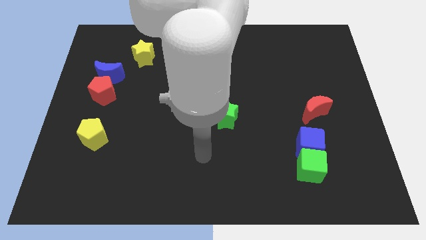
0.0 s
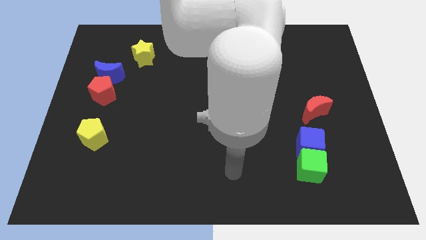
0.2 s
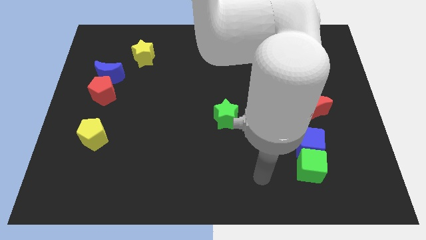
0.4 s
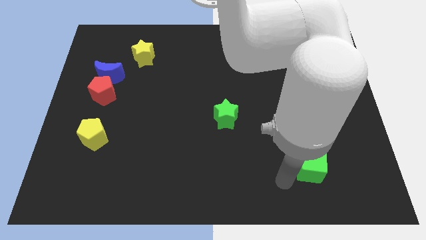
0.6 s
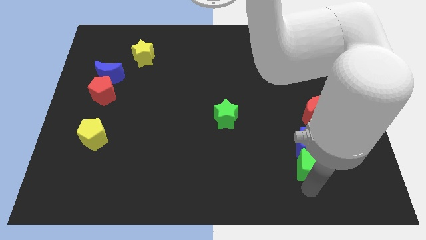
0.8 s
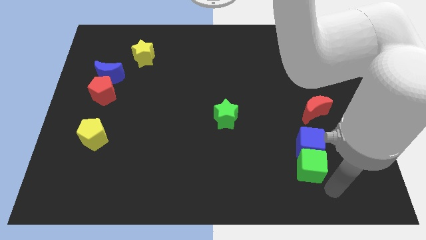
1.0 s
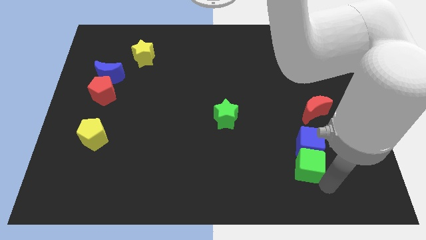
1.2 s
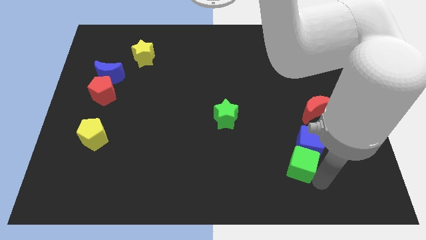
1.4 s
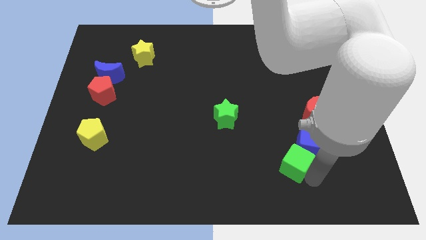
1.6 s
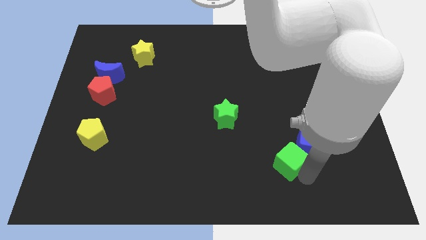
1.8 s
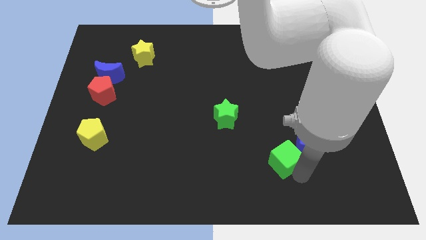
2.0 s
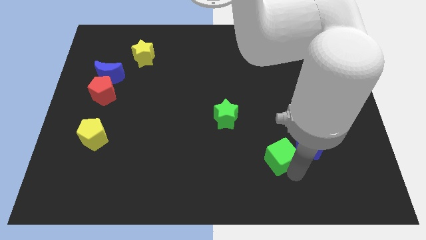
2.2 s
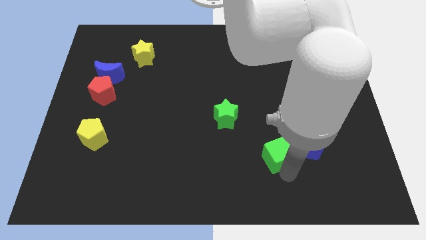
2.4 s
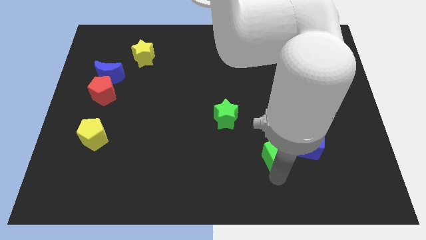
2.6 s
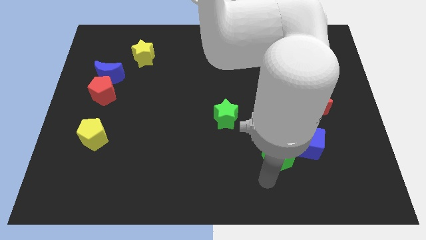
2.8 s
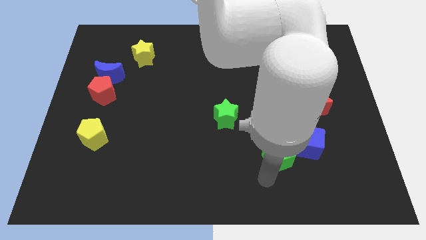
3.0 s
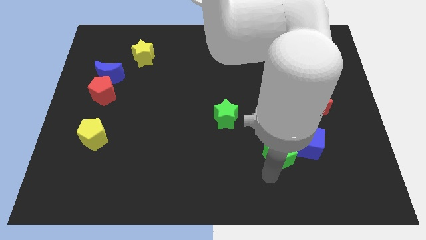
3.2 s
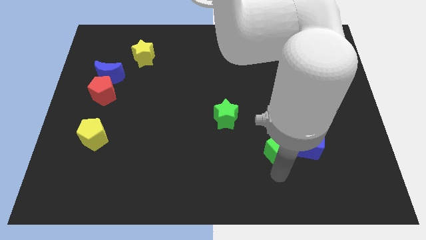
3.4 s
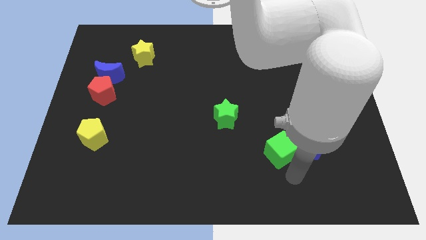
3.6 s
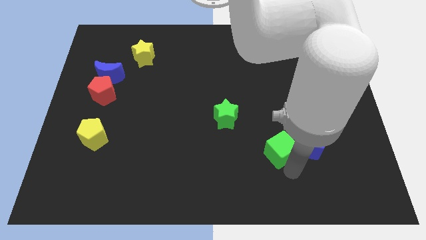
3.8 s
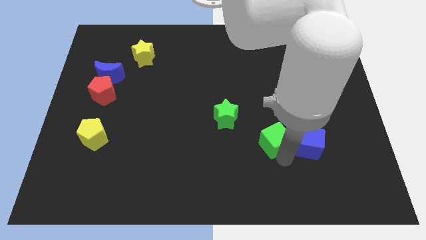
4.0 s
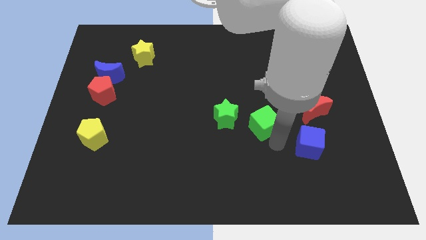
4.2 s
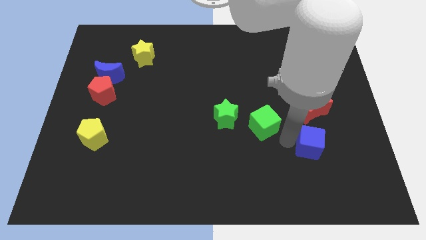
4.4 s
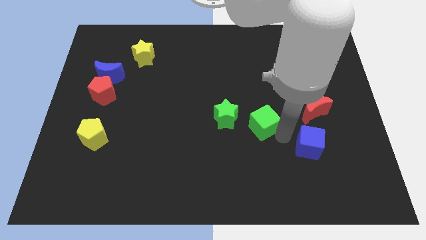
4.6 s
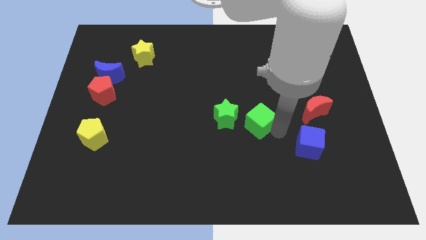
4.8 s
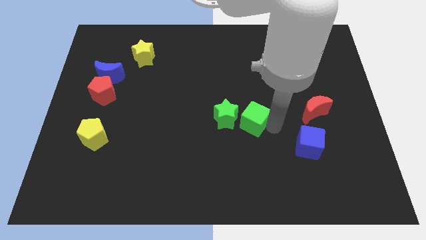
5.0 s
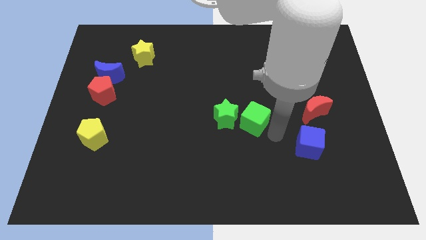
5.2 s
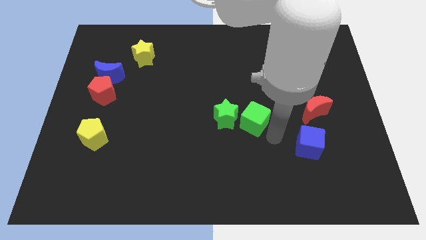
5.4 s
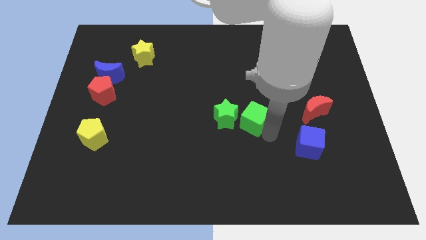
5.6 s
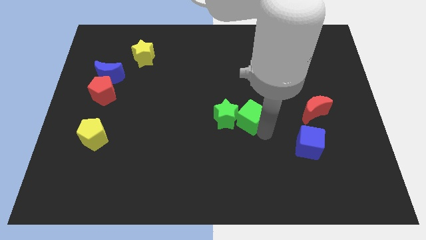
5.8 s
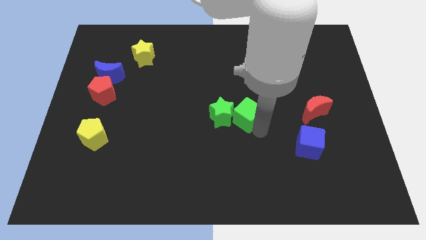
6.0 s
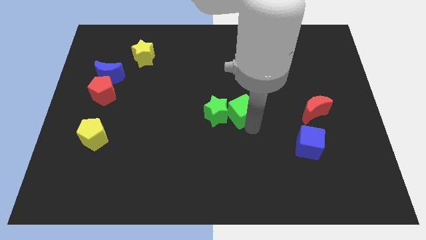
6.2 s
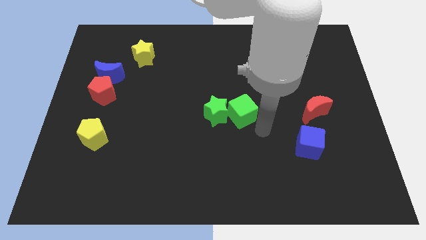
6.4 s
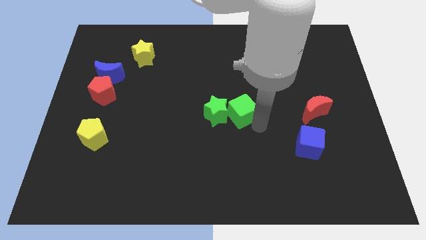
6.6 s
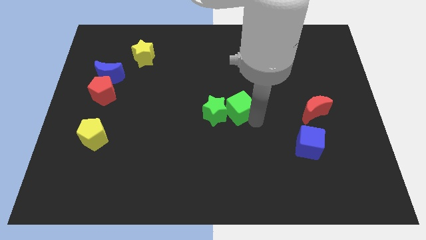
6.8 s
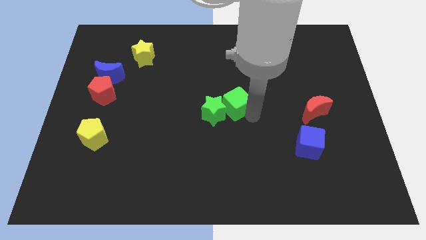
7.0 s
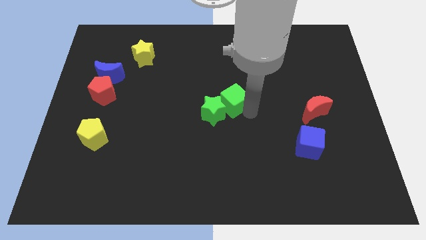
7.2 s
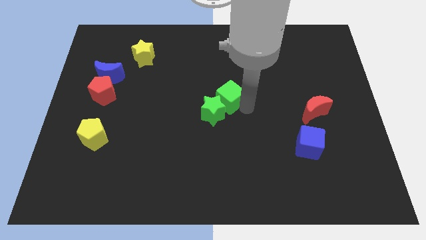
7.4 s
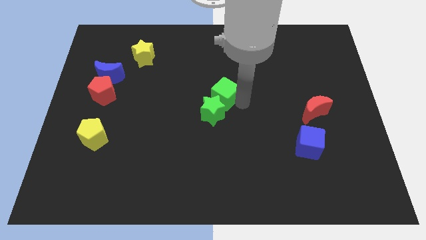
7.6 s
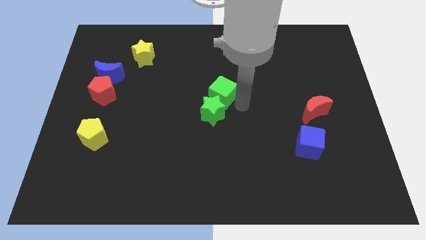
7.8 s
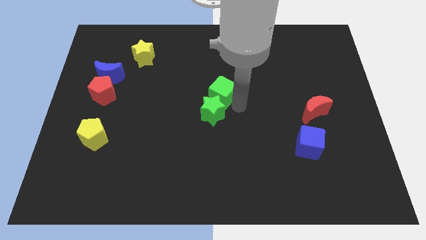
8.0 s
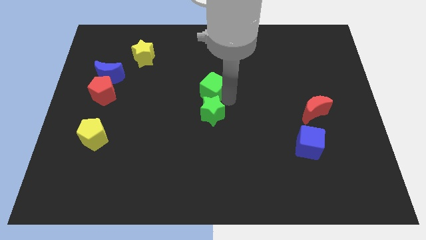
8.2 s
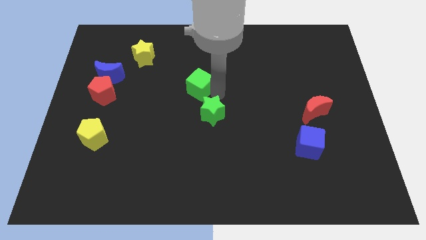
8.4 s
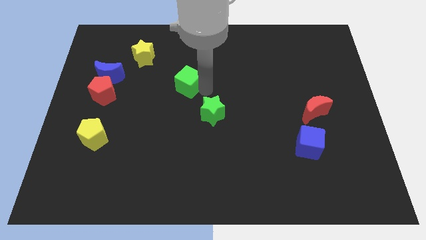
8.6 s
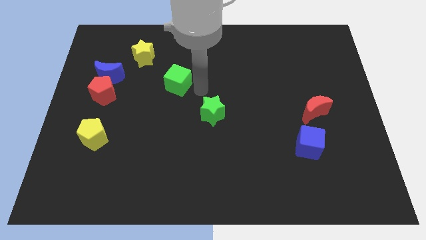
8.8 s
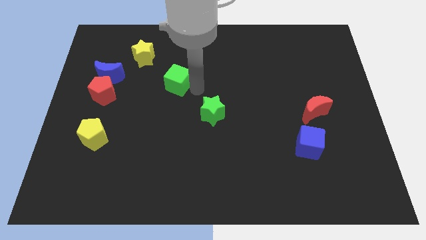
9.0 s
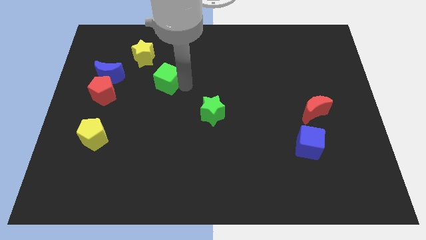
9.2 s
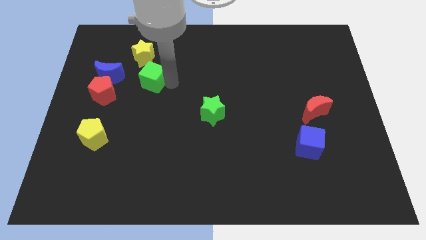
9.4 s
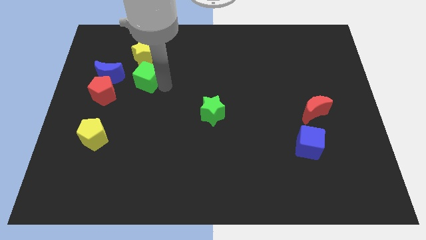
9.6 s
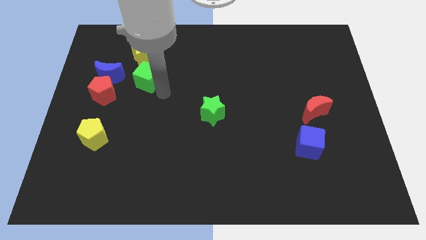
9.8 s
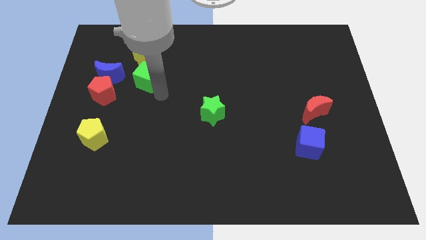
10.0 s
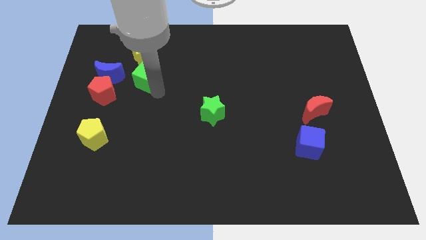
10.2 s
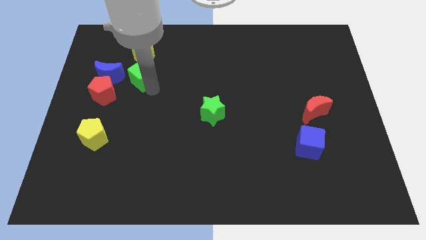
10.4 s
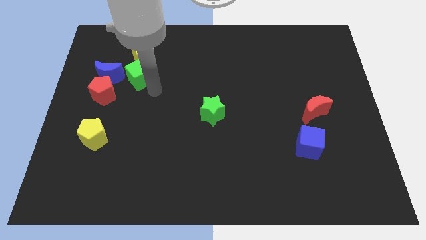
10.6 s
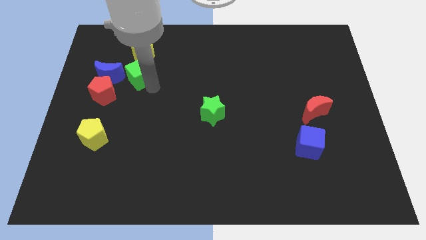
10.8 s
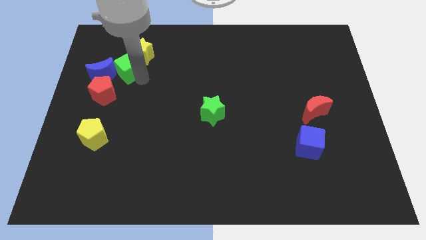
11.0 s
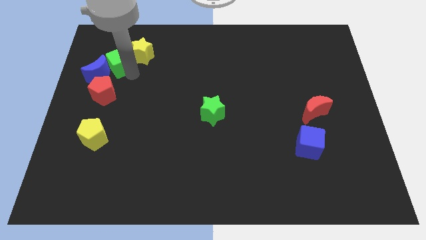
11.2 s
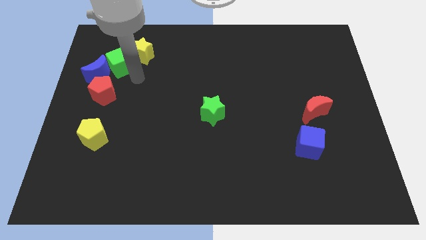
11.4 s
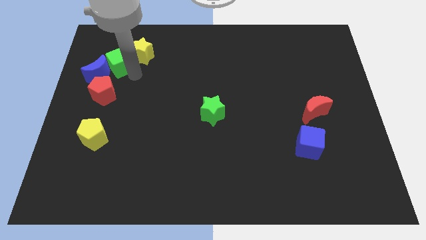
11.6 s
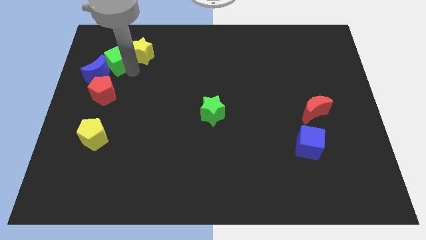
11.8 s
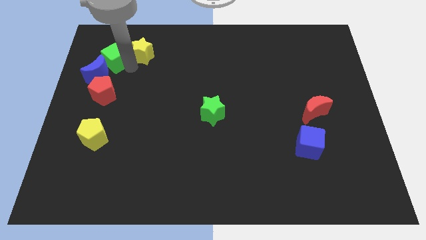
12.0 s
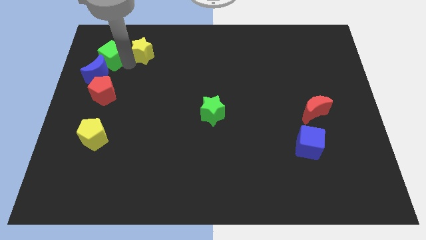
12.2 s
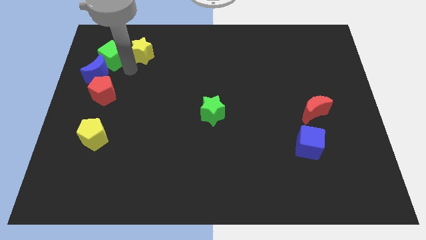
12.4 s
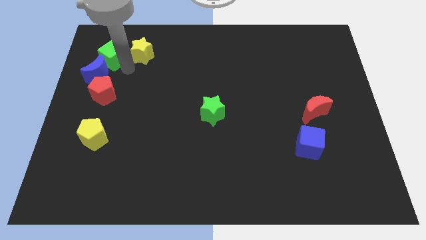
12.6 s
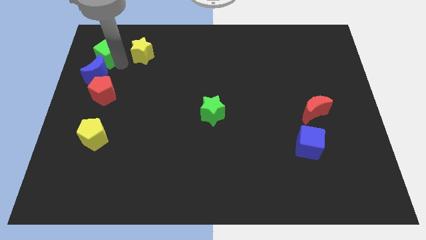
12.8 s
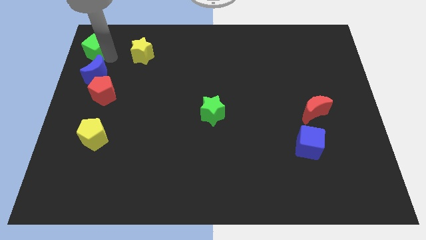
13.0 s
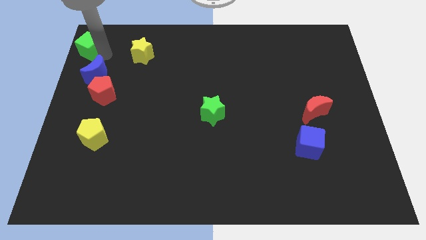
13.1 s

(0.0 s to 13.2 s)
slide the green cube to the top left
